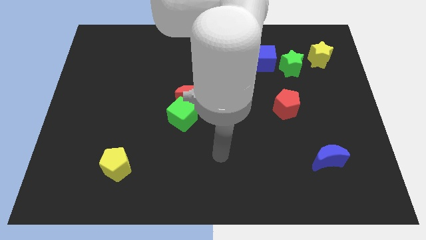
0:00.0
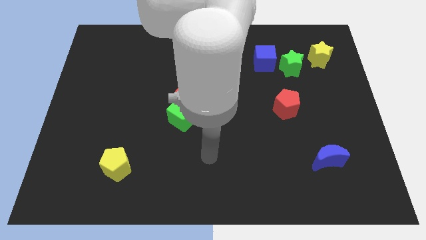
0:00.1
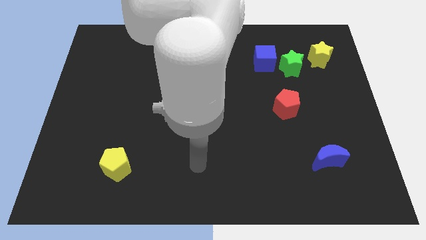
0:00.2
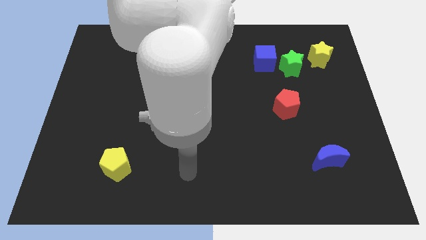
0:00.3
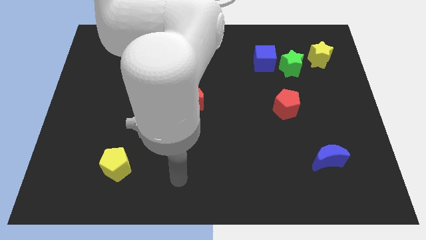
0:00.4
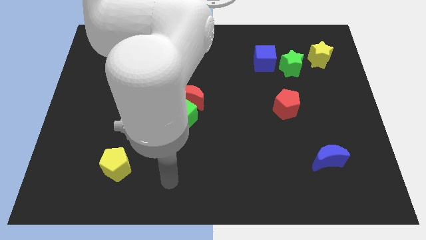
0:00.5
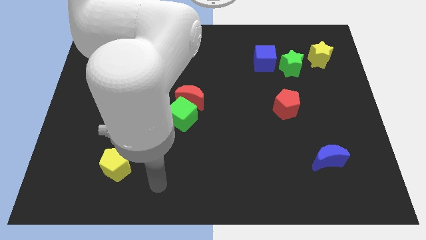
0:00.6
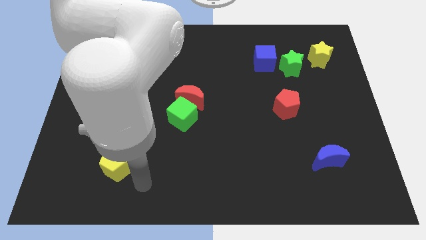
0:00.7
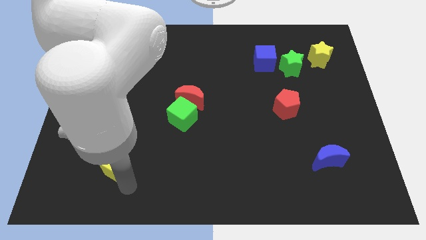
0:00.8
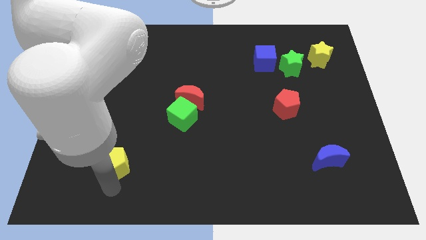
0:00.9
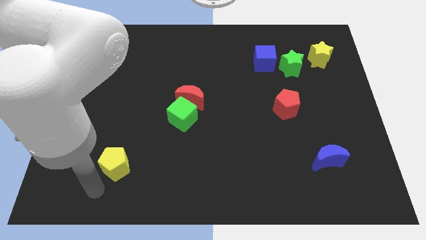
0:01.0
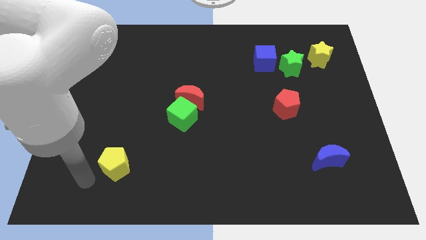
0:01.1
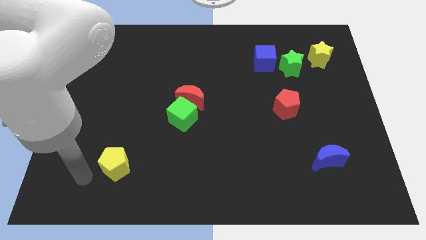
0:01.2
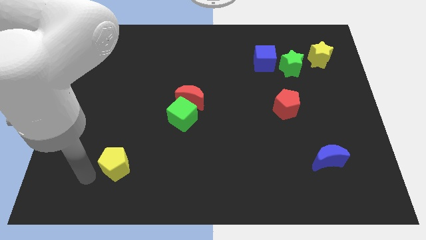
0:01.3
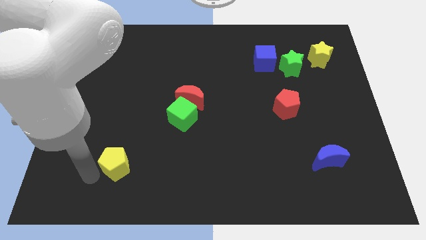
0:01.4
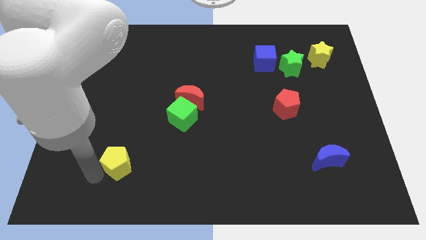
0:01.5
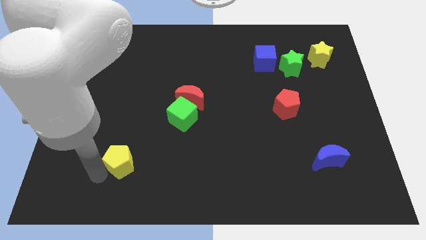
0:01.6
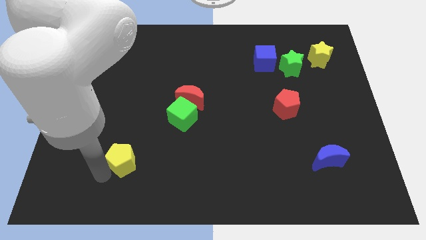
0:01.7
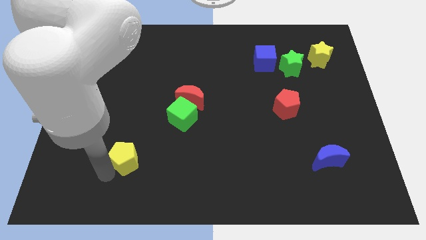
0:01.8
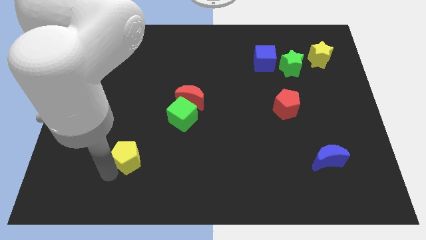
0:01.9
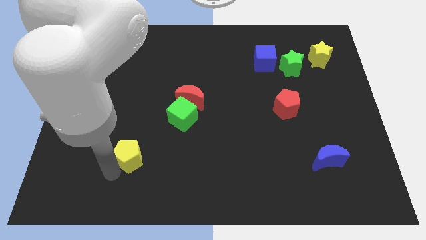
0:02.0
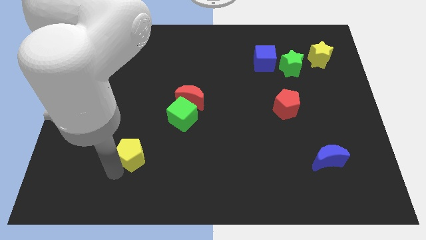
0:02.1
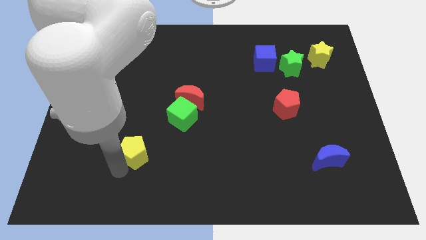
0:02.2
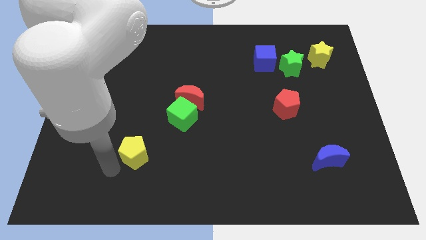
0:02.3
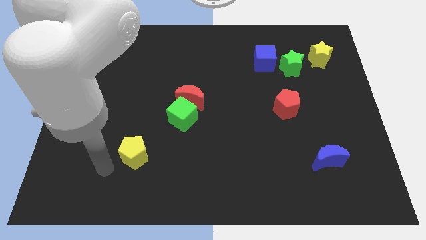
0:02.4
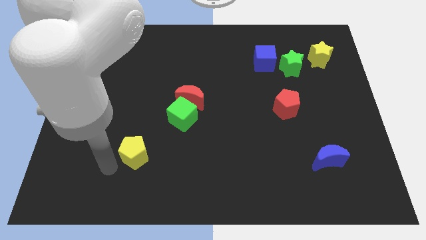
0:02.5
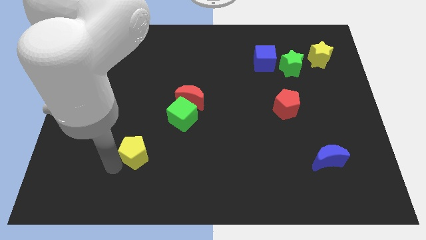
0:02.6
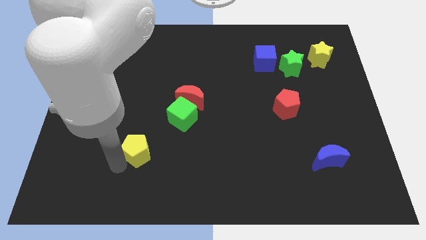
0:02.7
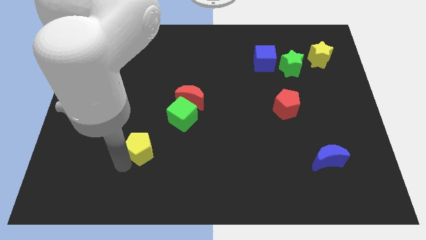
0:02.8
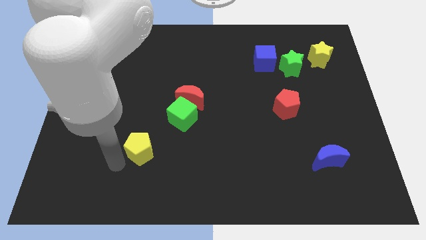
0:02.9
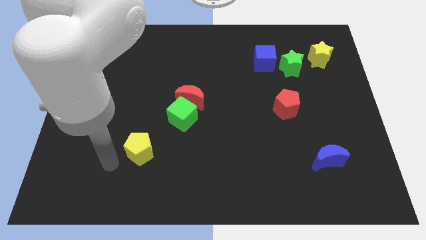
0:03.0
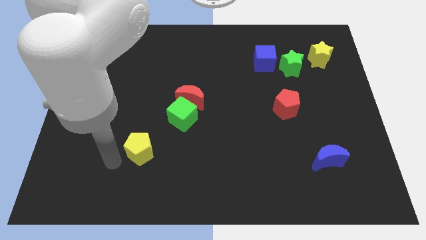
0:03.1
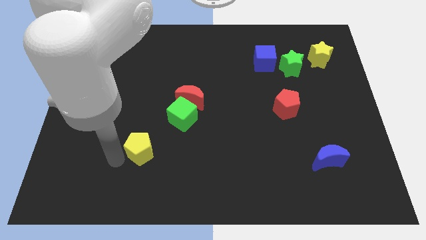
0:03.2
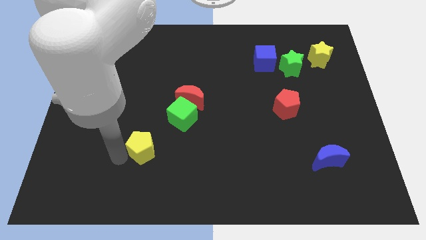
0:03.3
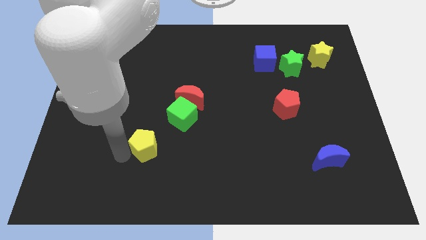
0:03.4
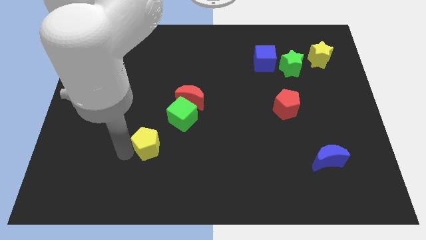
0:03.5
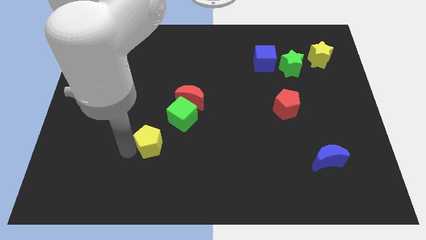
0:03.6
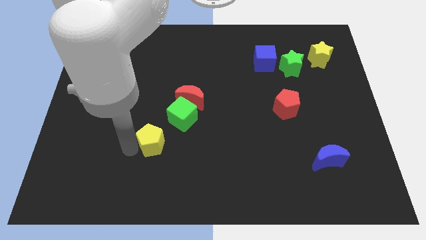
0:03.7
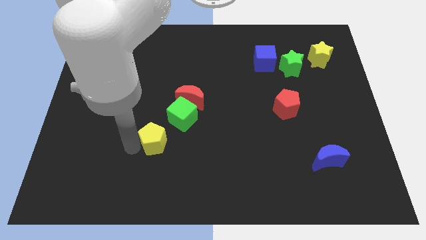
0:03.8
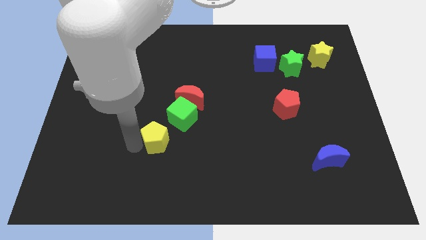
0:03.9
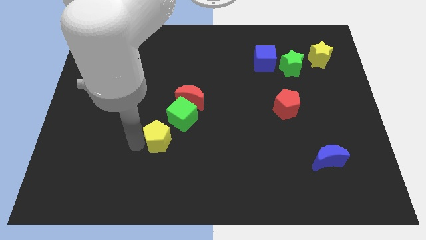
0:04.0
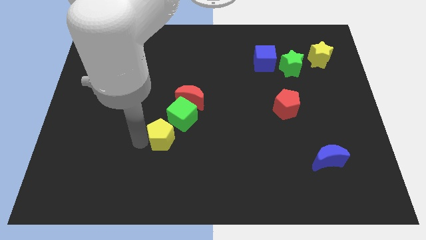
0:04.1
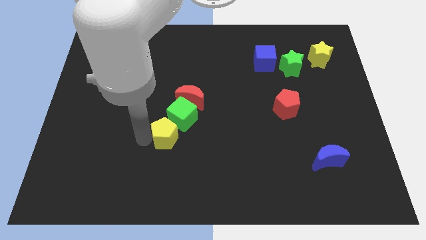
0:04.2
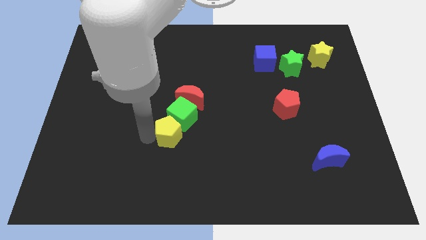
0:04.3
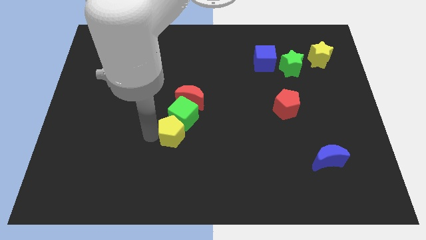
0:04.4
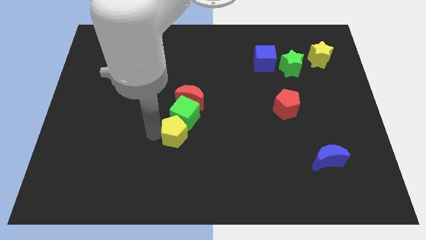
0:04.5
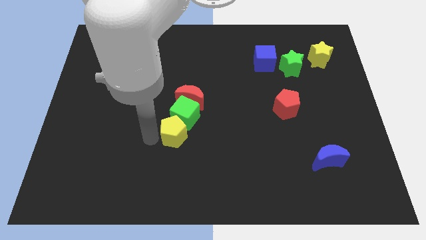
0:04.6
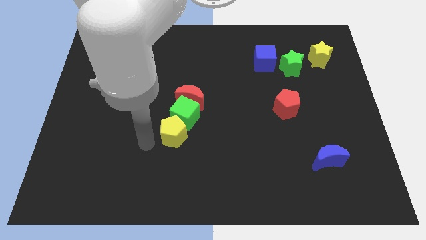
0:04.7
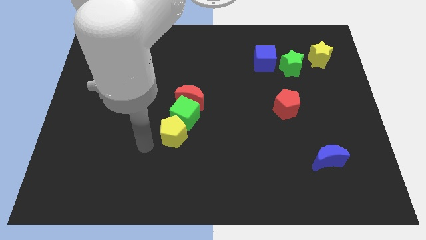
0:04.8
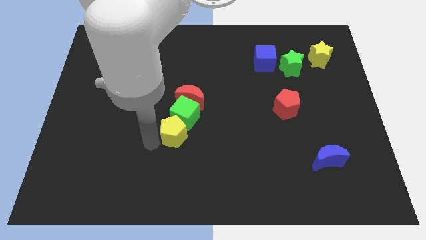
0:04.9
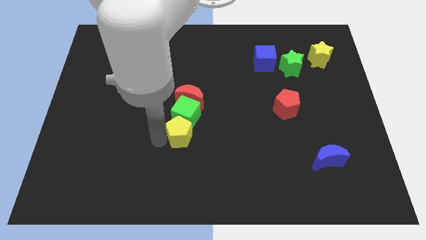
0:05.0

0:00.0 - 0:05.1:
put the yellow pentagon to the center

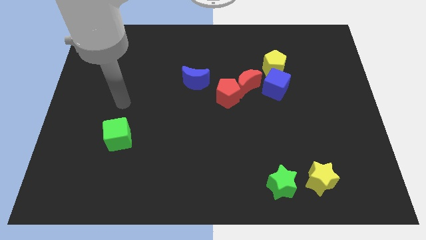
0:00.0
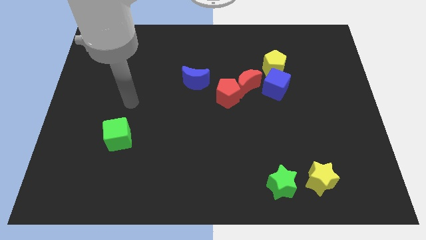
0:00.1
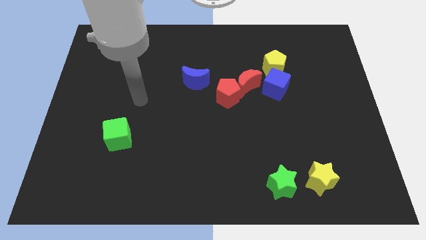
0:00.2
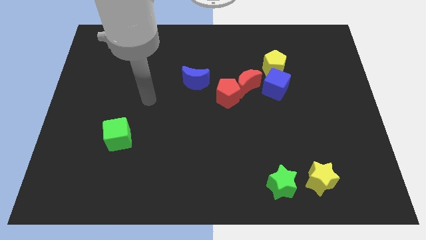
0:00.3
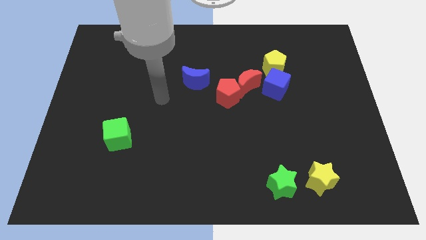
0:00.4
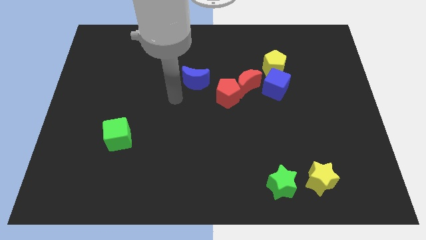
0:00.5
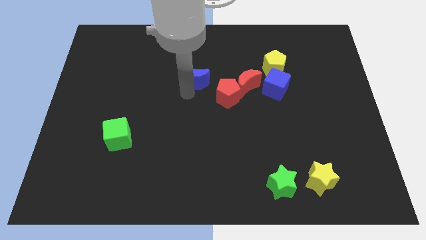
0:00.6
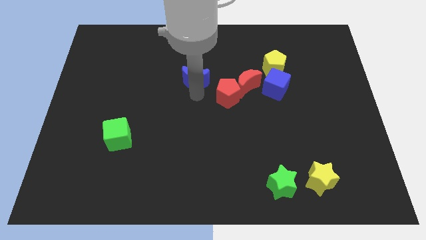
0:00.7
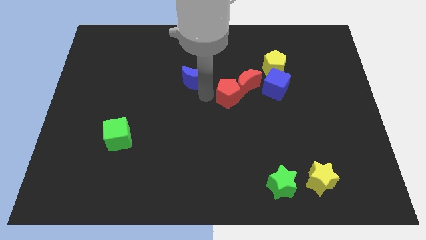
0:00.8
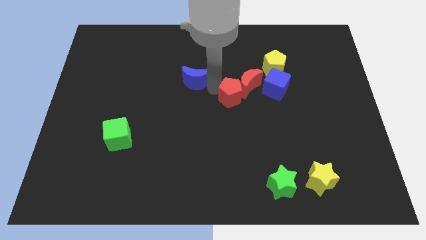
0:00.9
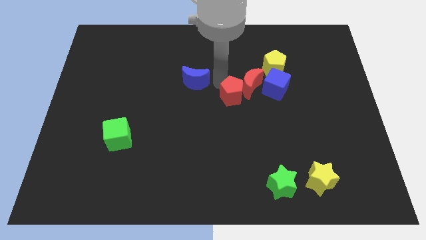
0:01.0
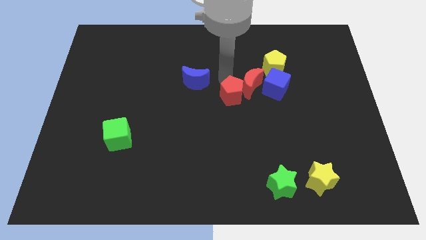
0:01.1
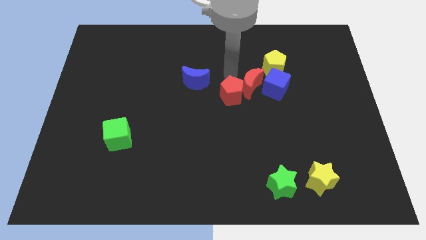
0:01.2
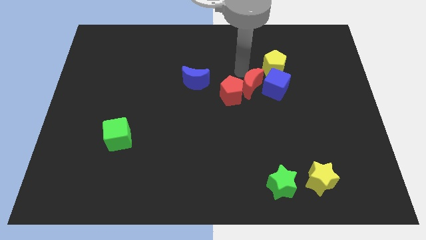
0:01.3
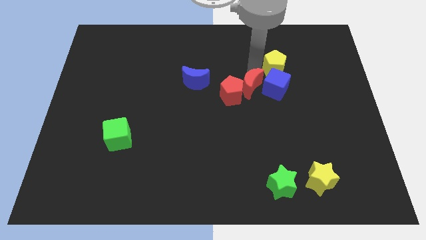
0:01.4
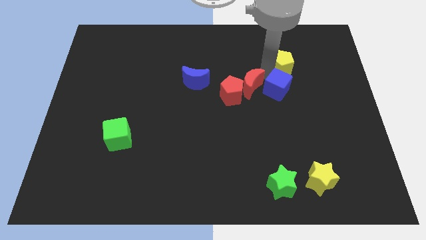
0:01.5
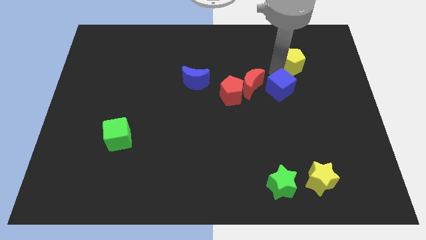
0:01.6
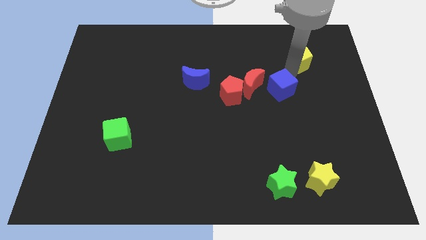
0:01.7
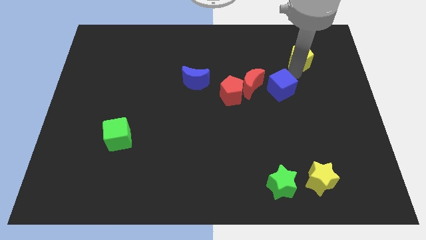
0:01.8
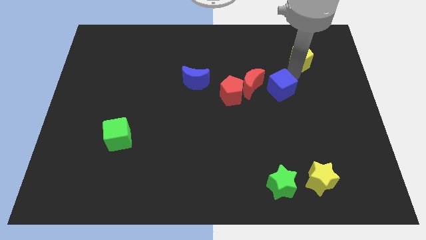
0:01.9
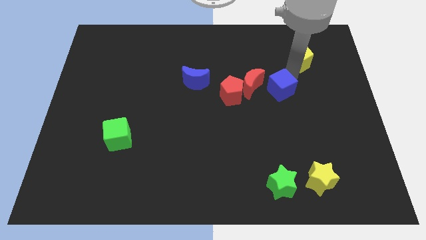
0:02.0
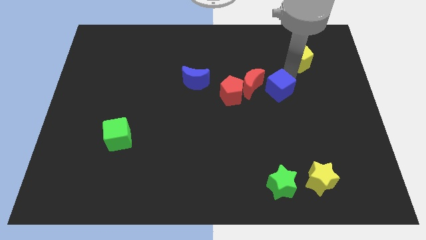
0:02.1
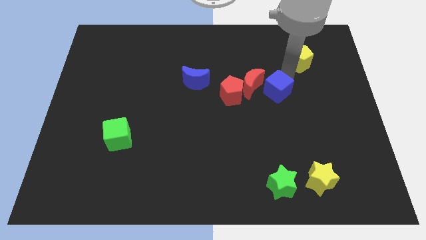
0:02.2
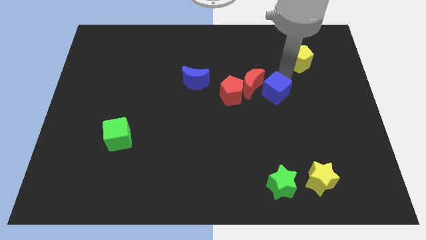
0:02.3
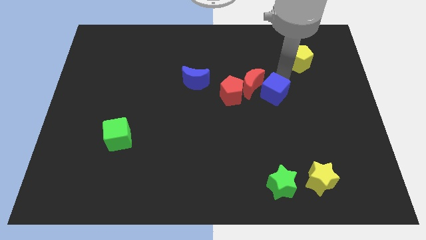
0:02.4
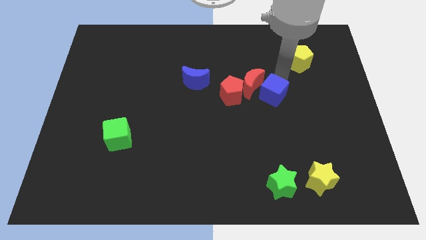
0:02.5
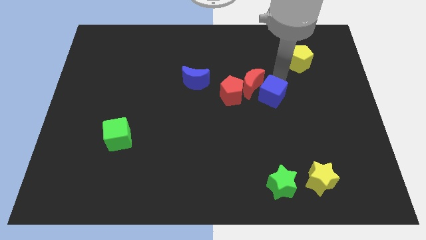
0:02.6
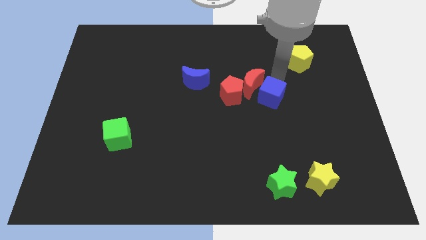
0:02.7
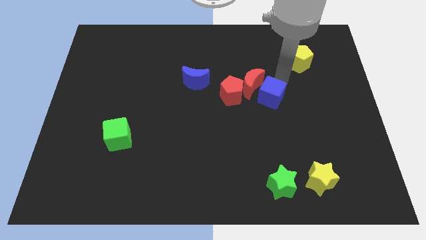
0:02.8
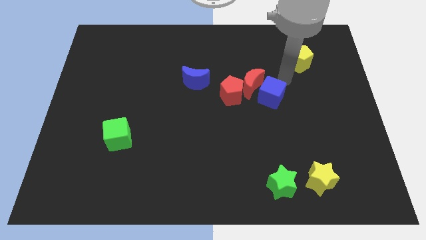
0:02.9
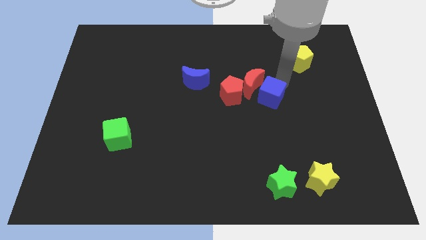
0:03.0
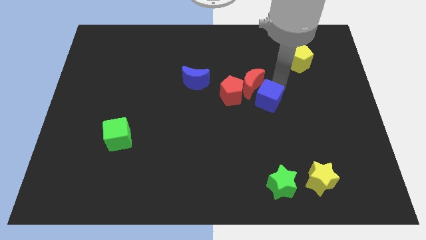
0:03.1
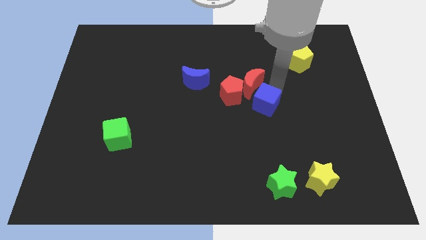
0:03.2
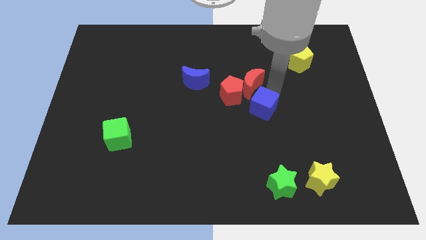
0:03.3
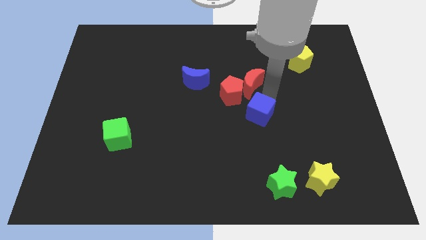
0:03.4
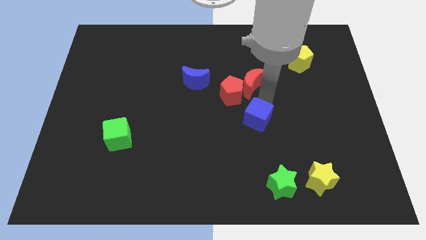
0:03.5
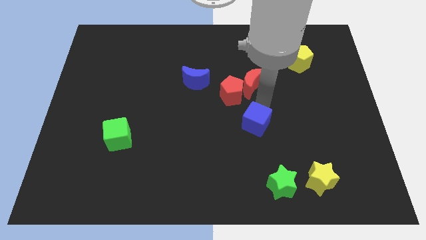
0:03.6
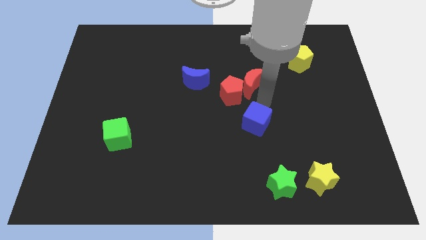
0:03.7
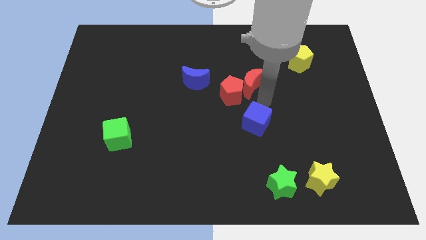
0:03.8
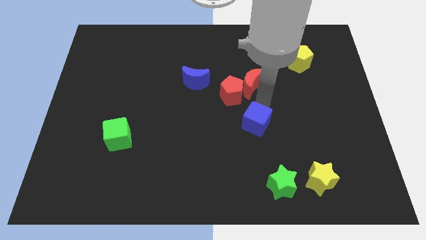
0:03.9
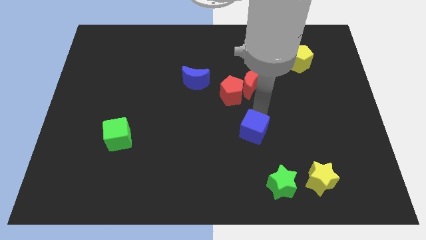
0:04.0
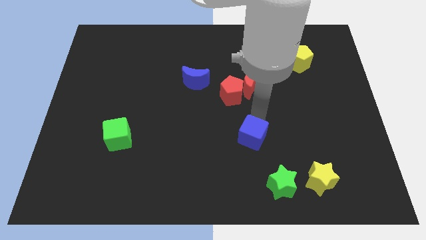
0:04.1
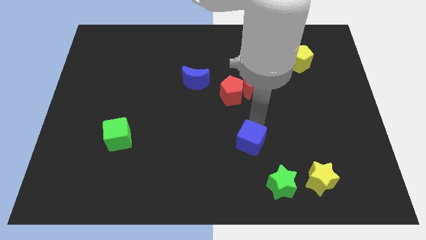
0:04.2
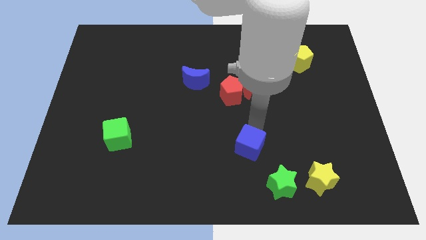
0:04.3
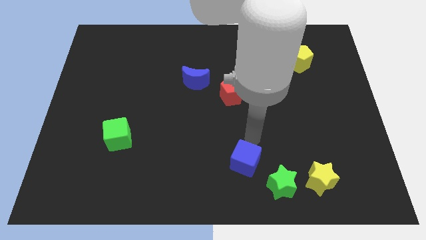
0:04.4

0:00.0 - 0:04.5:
put the blue cube to the bottom
